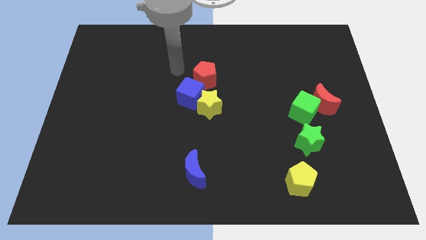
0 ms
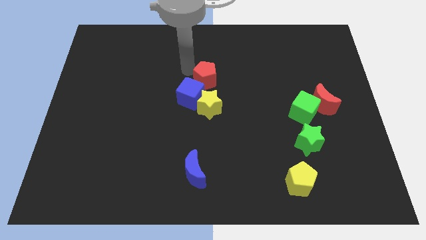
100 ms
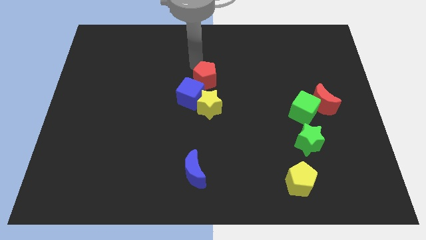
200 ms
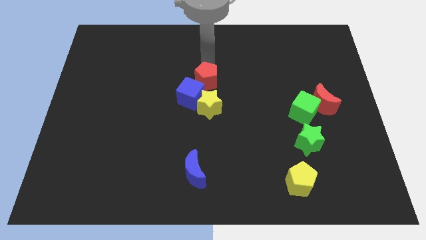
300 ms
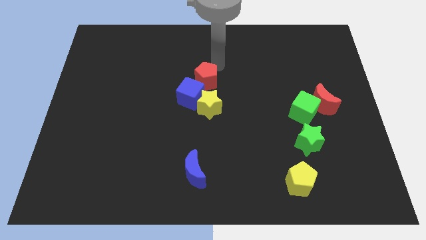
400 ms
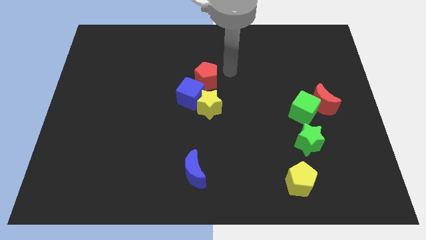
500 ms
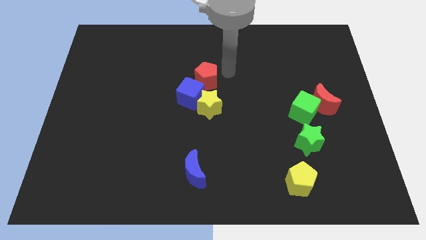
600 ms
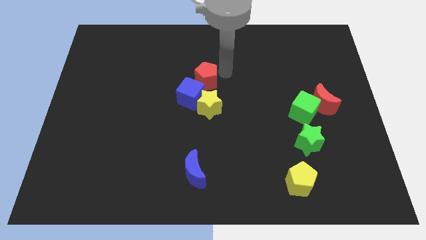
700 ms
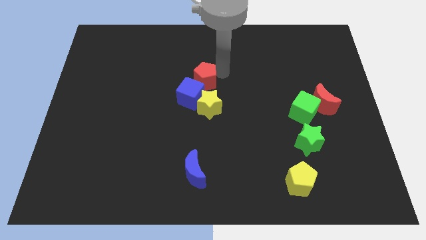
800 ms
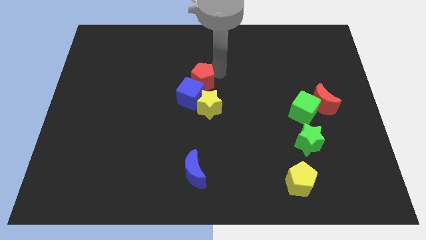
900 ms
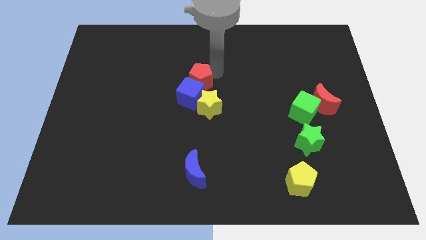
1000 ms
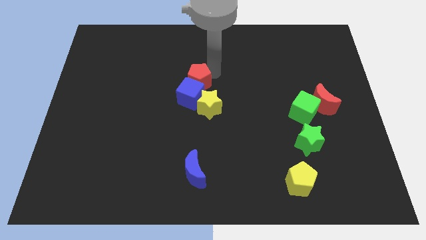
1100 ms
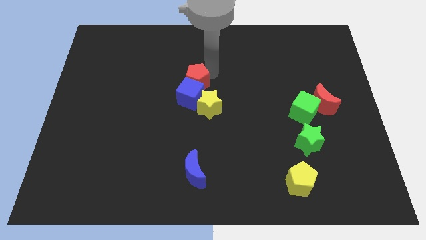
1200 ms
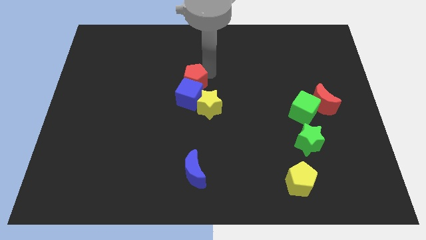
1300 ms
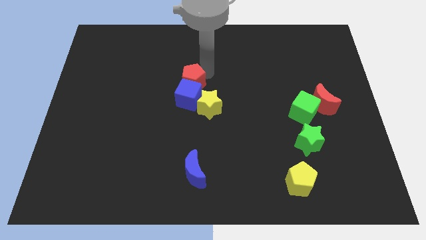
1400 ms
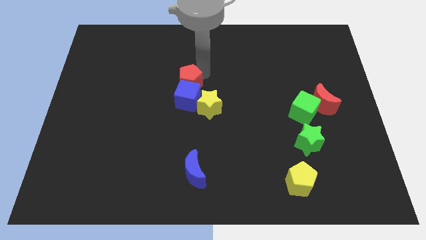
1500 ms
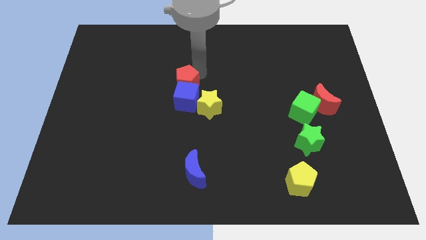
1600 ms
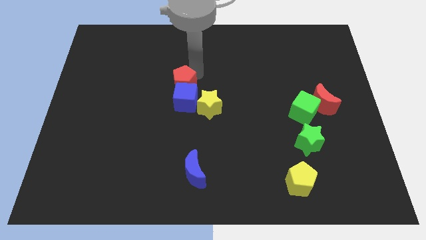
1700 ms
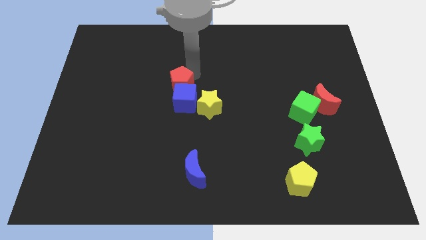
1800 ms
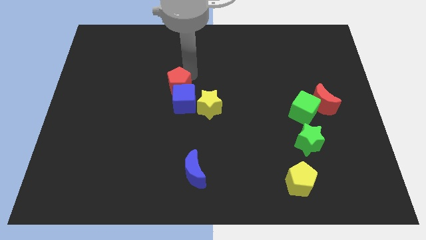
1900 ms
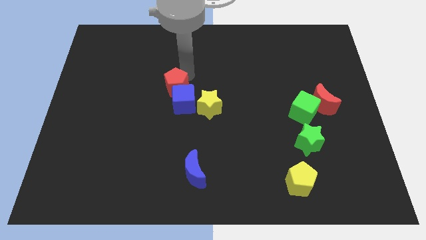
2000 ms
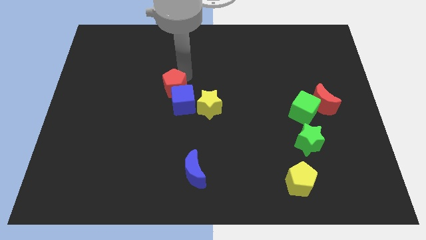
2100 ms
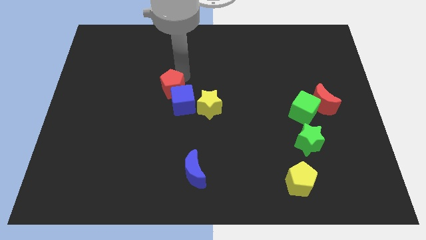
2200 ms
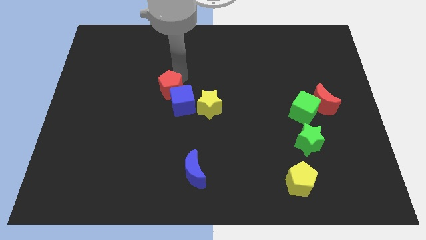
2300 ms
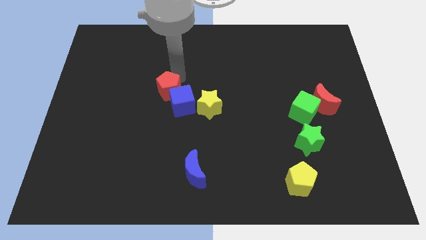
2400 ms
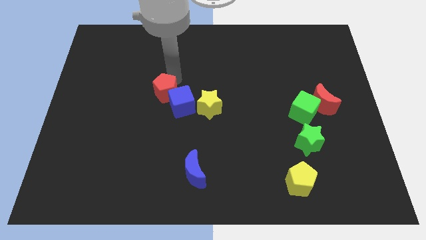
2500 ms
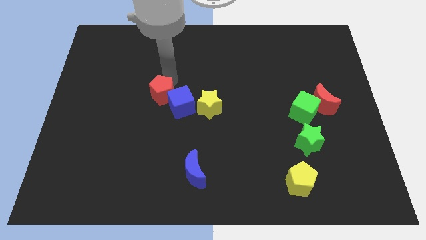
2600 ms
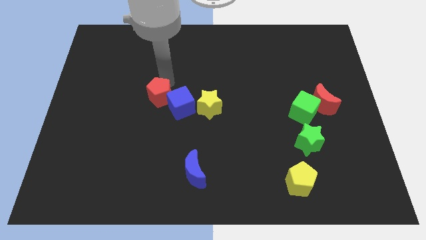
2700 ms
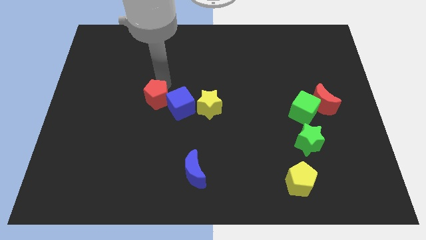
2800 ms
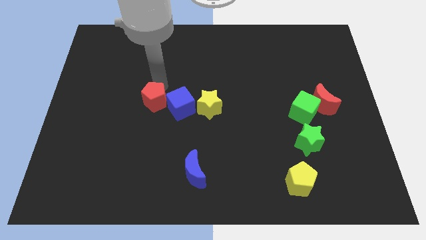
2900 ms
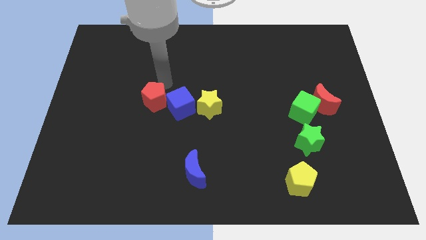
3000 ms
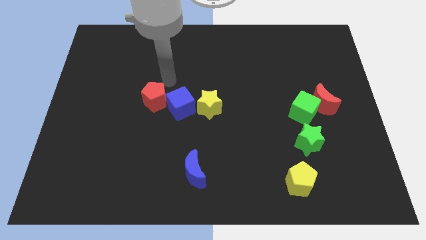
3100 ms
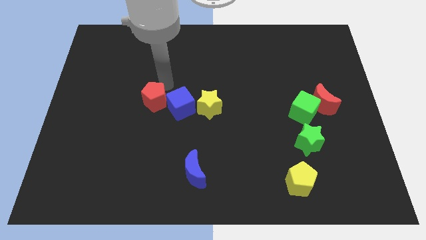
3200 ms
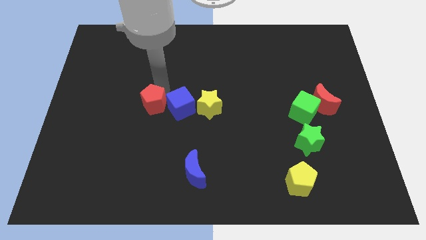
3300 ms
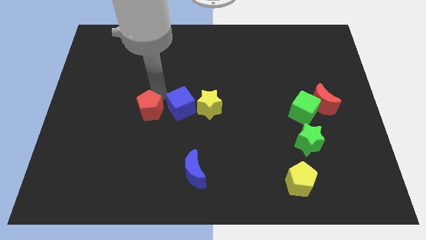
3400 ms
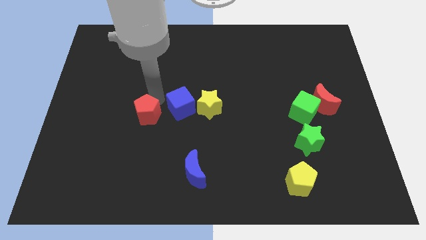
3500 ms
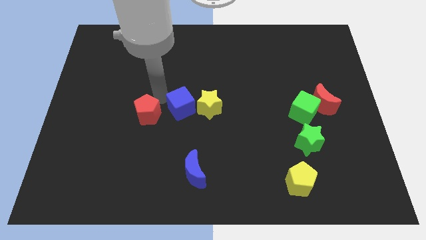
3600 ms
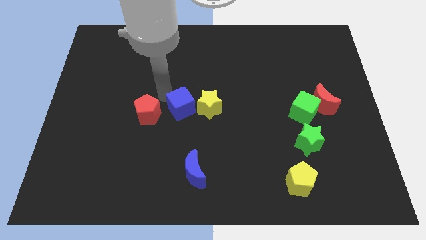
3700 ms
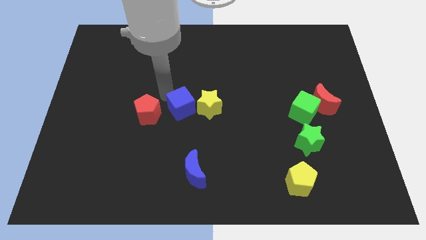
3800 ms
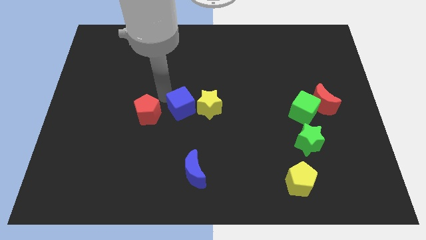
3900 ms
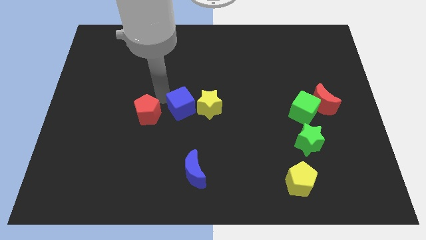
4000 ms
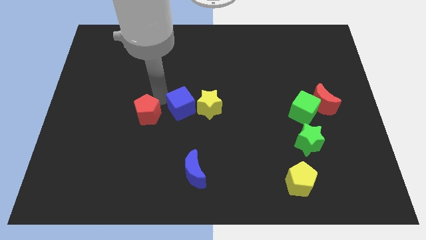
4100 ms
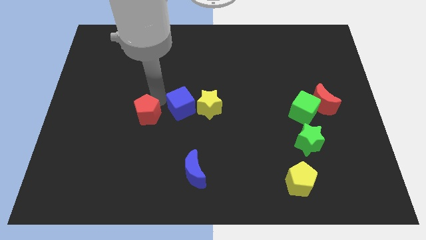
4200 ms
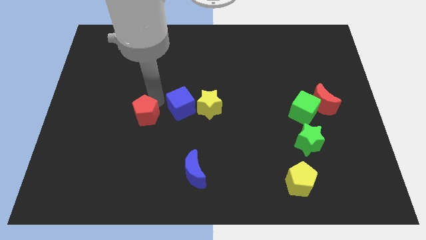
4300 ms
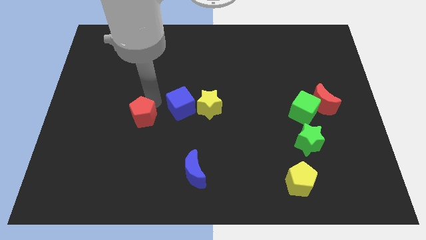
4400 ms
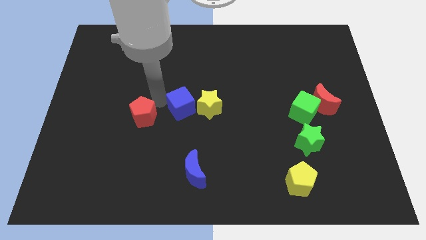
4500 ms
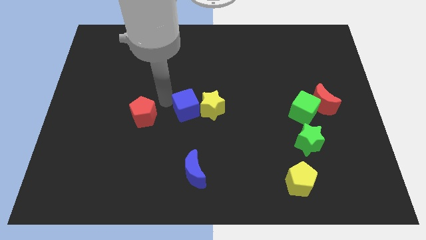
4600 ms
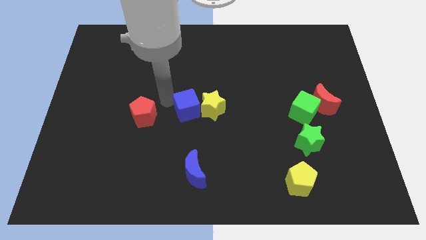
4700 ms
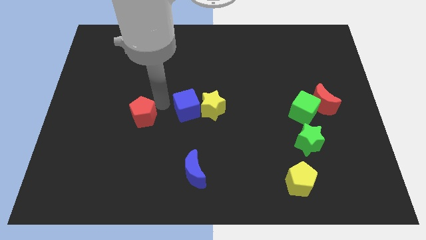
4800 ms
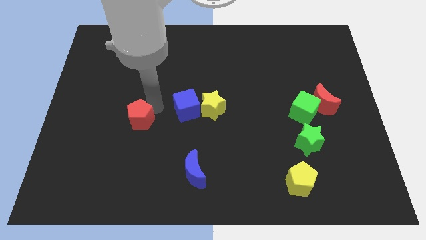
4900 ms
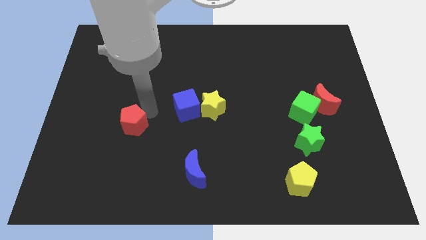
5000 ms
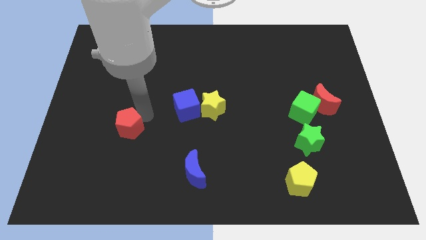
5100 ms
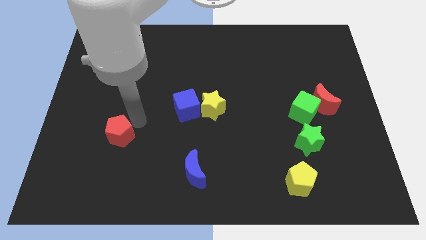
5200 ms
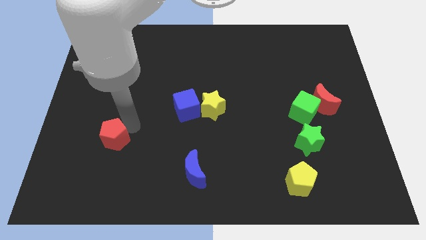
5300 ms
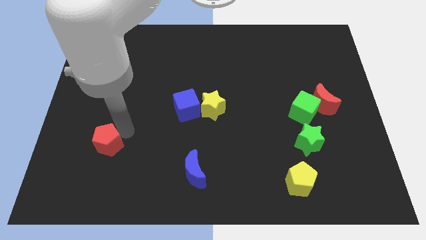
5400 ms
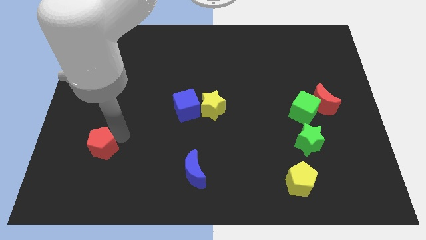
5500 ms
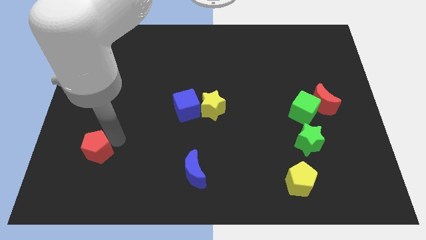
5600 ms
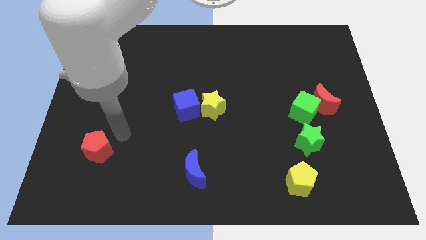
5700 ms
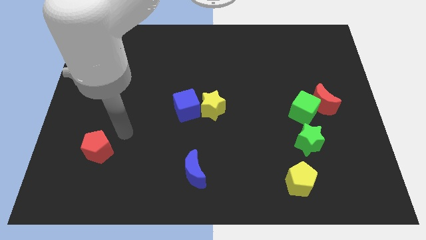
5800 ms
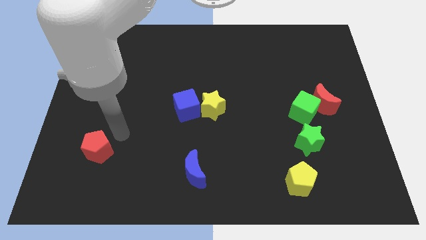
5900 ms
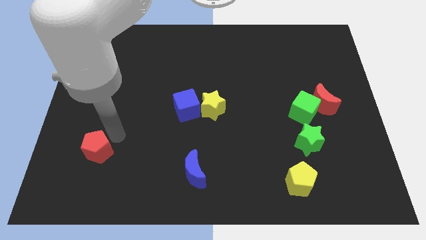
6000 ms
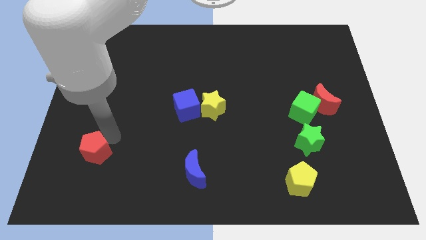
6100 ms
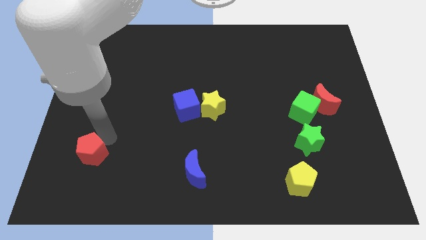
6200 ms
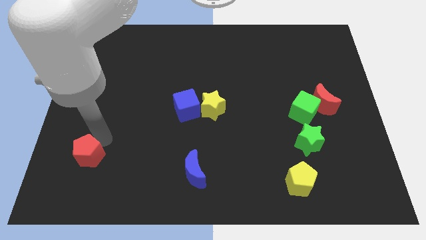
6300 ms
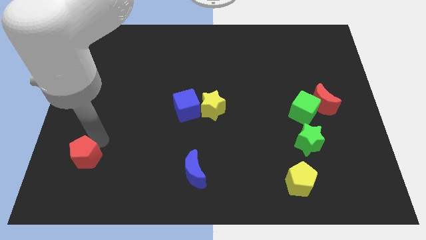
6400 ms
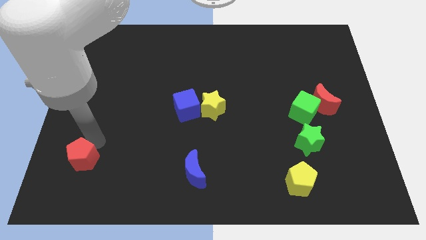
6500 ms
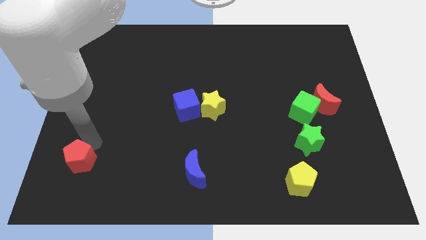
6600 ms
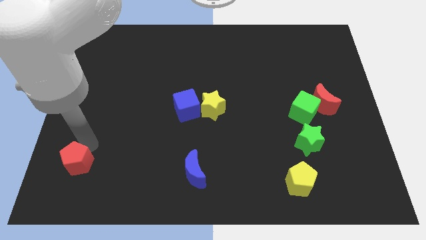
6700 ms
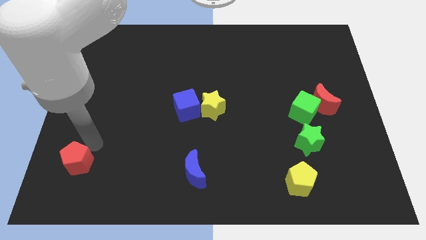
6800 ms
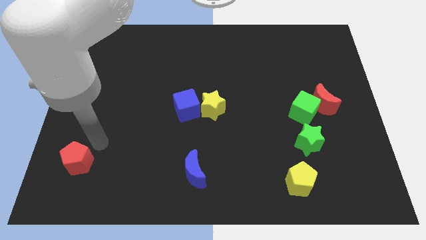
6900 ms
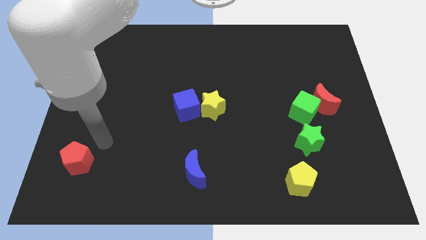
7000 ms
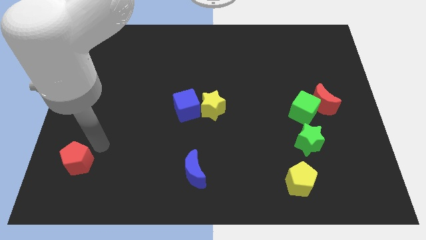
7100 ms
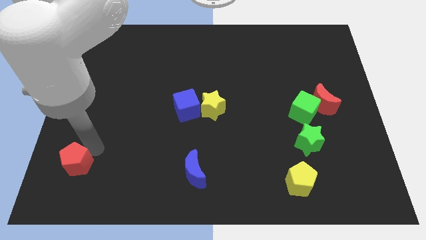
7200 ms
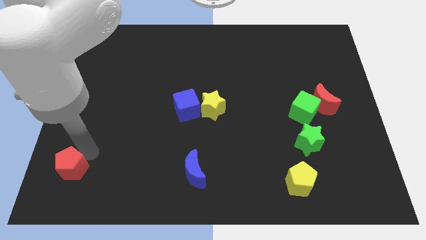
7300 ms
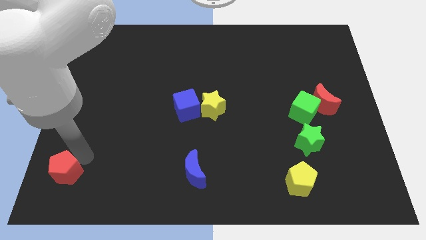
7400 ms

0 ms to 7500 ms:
slide the red pentagon to the bottom left of the board
